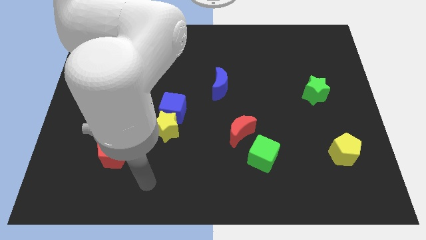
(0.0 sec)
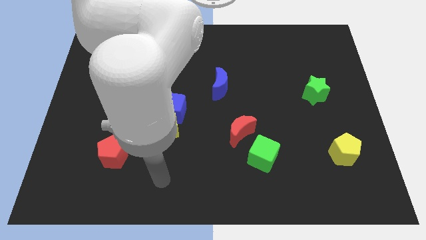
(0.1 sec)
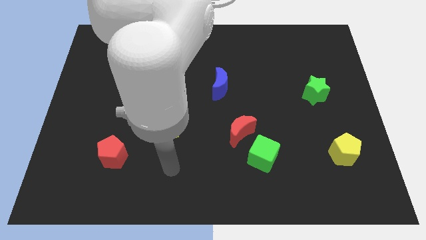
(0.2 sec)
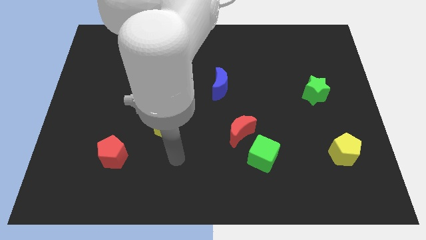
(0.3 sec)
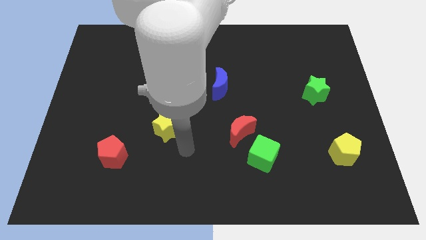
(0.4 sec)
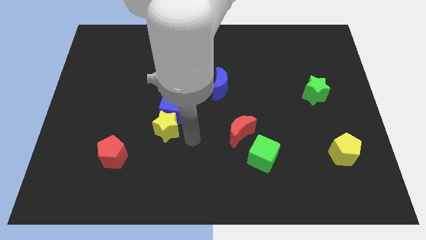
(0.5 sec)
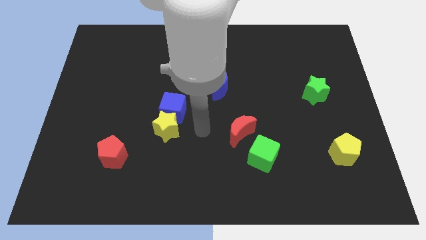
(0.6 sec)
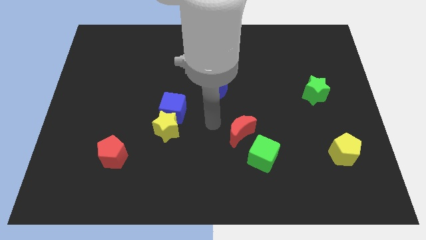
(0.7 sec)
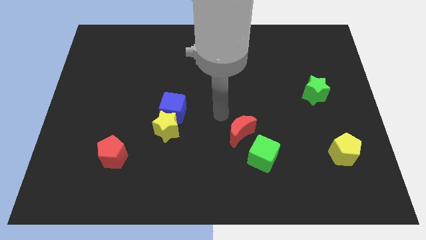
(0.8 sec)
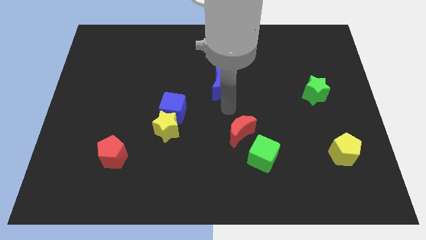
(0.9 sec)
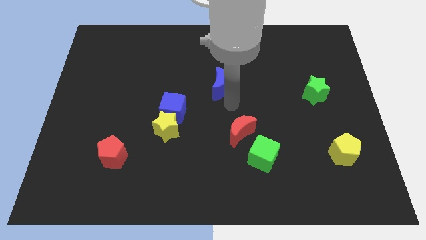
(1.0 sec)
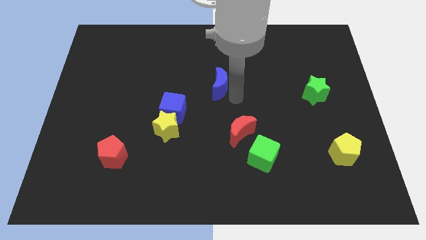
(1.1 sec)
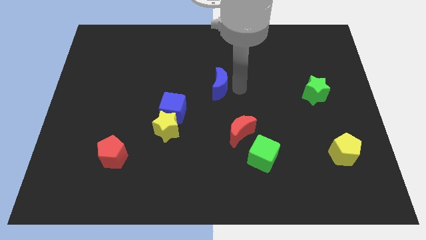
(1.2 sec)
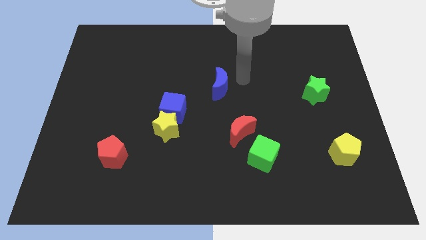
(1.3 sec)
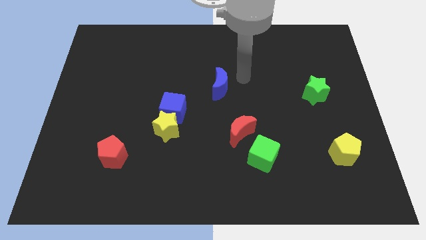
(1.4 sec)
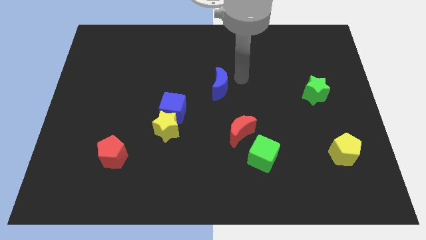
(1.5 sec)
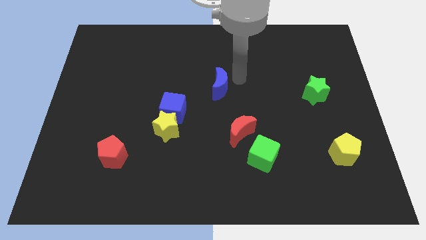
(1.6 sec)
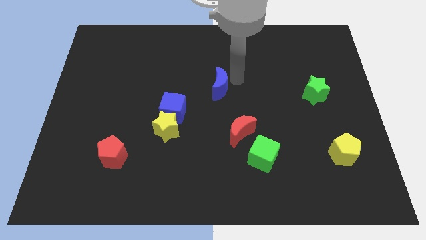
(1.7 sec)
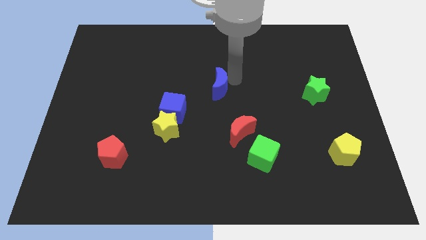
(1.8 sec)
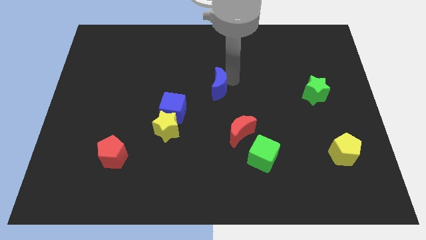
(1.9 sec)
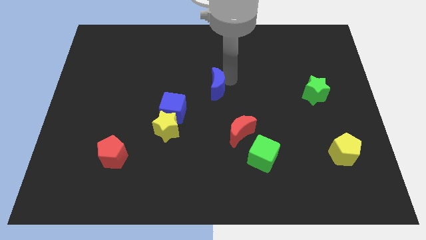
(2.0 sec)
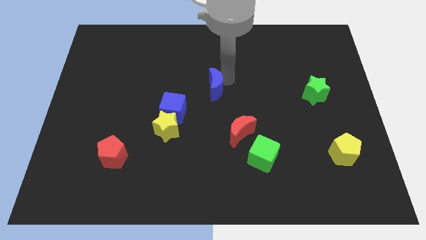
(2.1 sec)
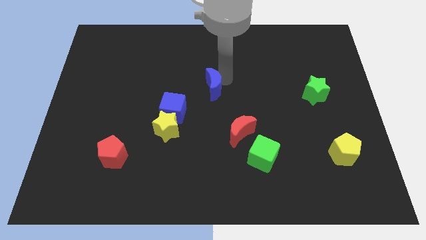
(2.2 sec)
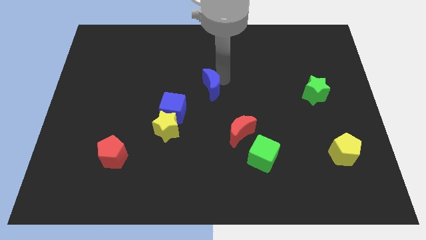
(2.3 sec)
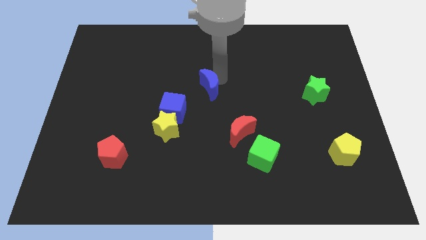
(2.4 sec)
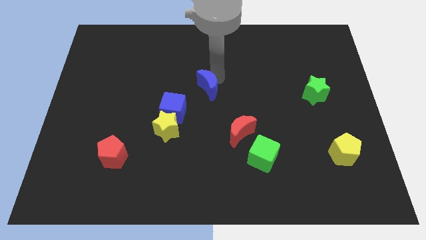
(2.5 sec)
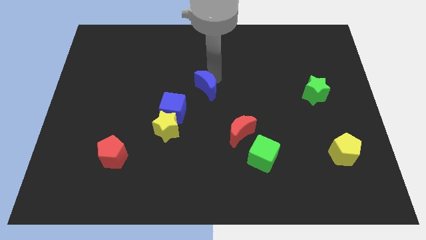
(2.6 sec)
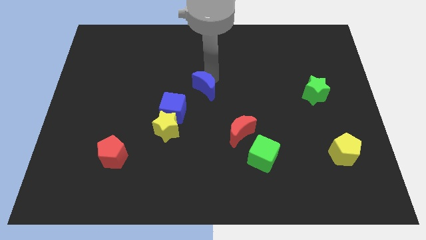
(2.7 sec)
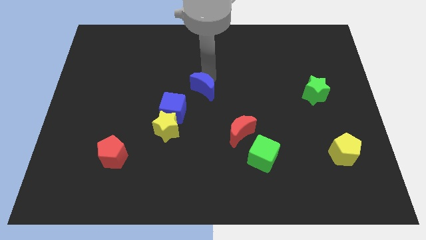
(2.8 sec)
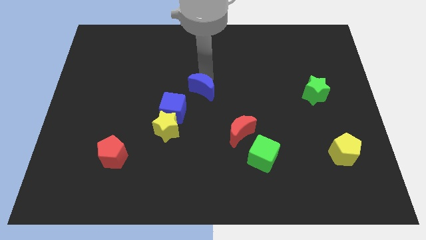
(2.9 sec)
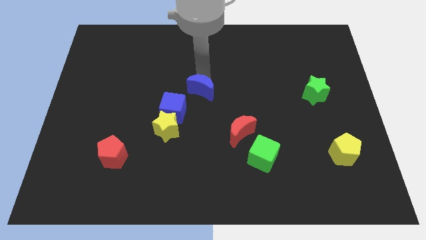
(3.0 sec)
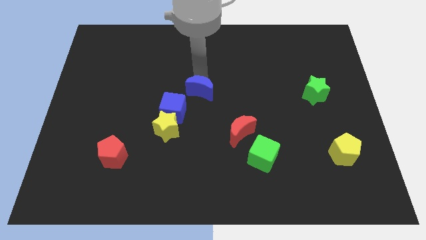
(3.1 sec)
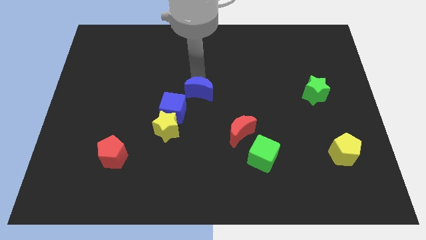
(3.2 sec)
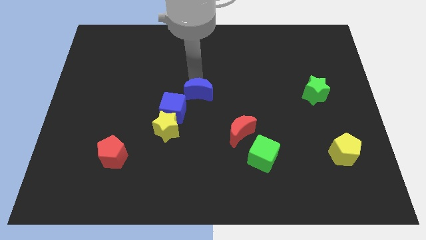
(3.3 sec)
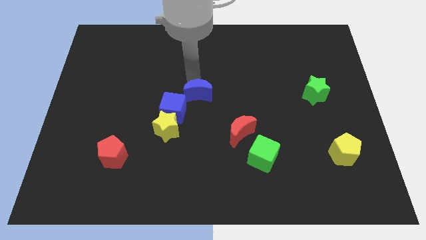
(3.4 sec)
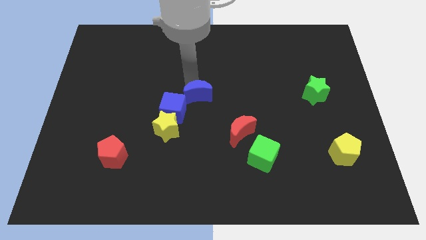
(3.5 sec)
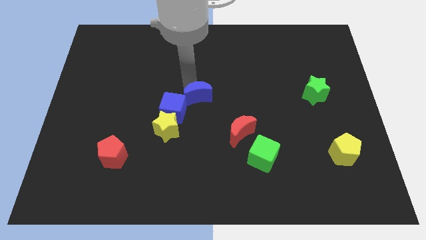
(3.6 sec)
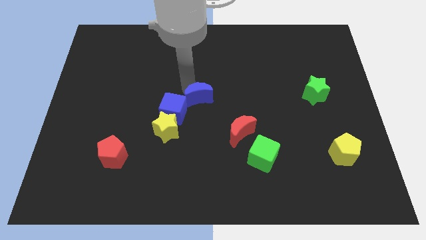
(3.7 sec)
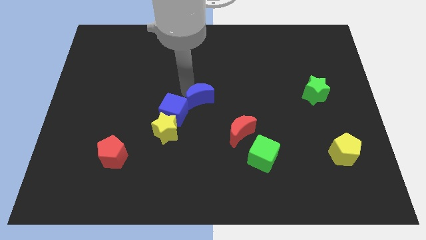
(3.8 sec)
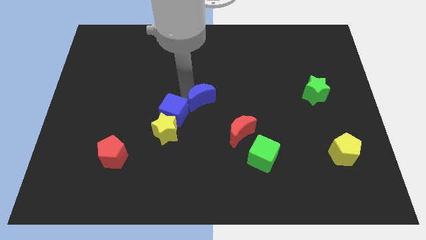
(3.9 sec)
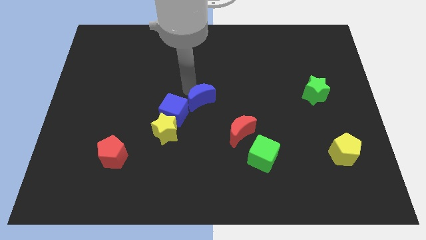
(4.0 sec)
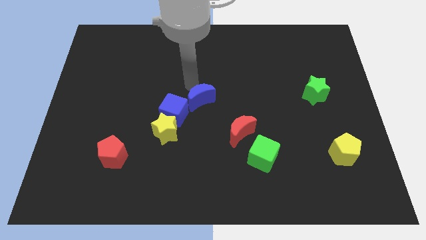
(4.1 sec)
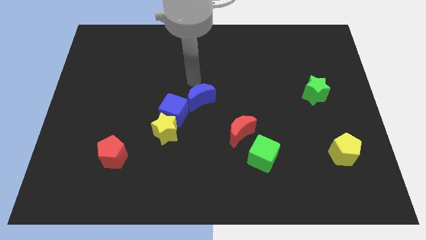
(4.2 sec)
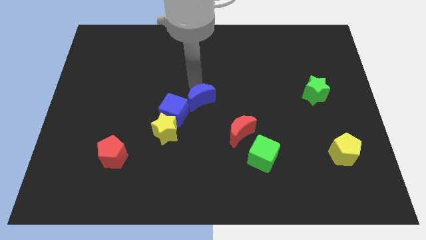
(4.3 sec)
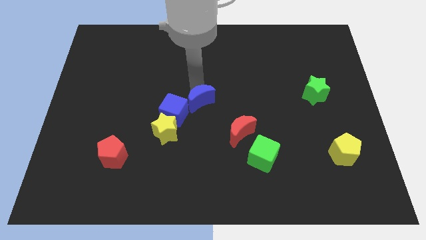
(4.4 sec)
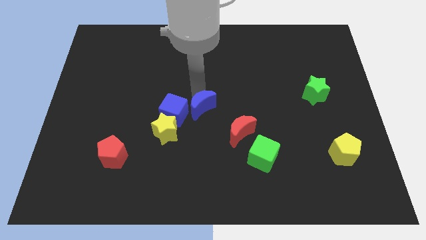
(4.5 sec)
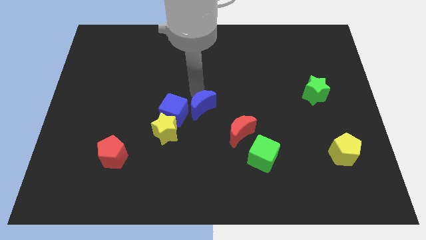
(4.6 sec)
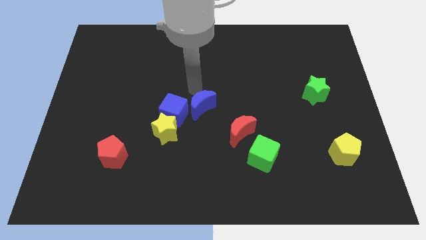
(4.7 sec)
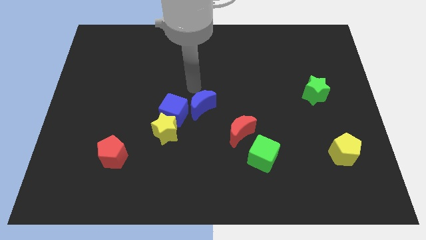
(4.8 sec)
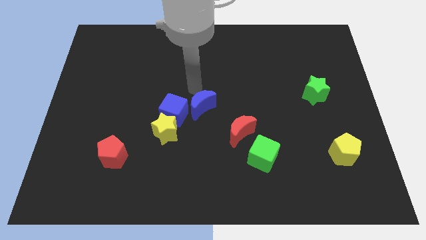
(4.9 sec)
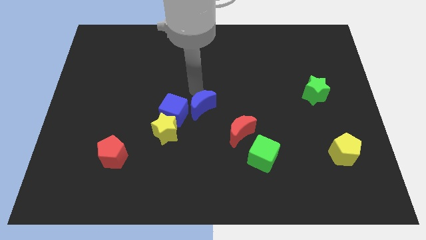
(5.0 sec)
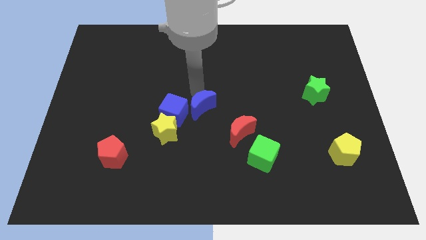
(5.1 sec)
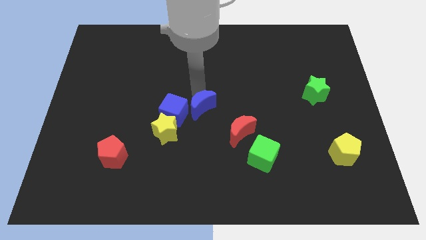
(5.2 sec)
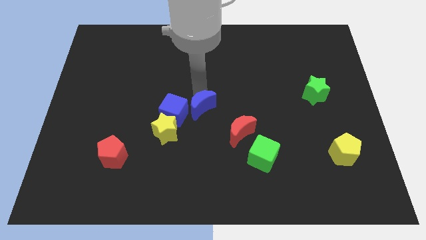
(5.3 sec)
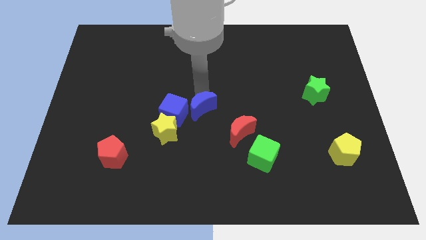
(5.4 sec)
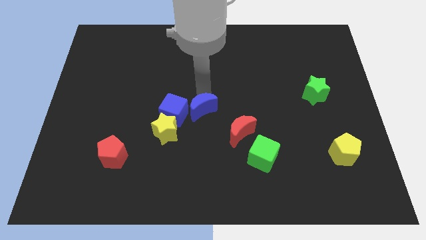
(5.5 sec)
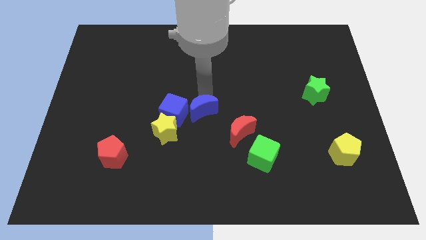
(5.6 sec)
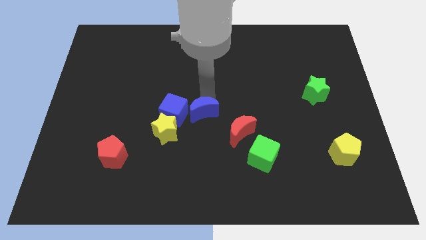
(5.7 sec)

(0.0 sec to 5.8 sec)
move the blue moon down a little

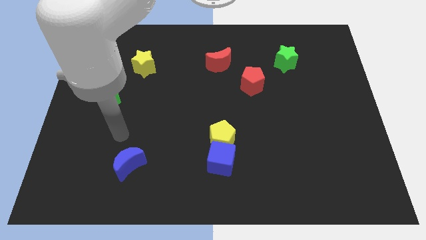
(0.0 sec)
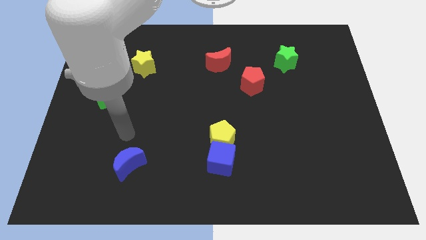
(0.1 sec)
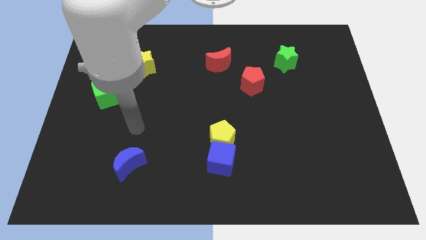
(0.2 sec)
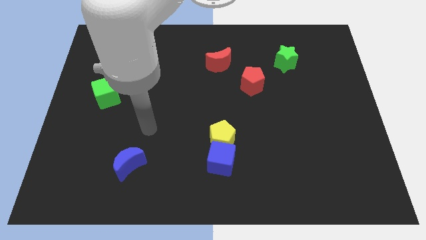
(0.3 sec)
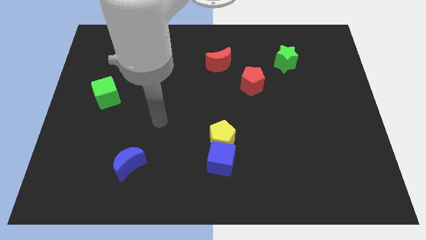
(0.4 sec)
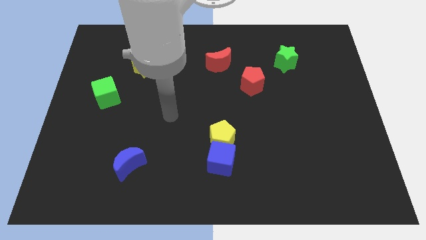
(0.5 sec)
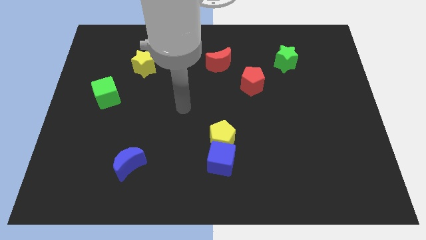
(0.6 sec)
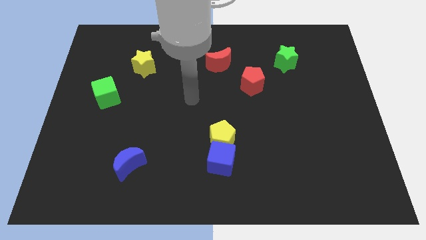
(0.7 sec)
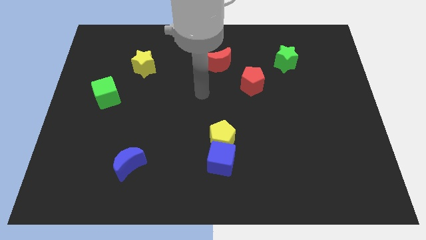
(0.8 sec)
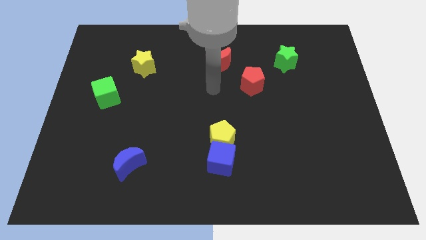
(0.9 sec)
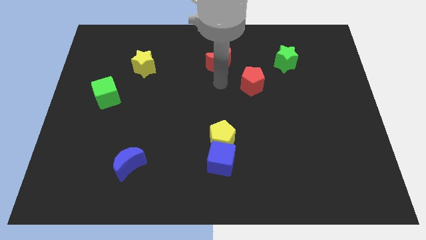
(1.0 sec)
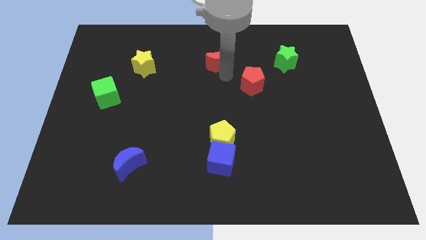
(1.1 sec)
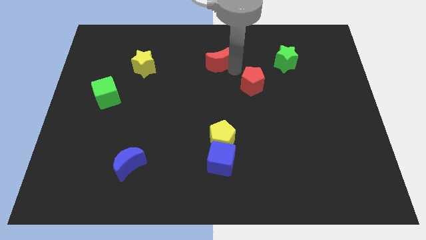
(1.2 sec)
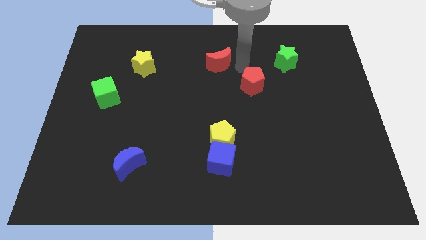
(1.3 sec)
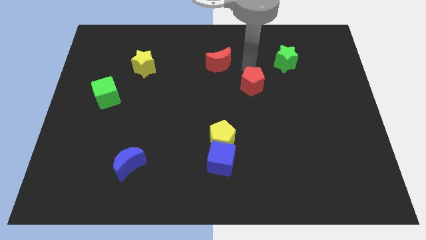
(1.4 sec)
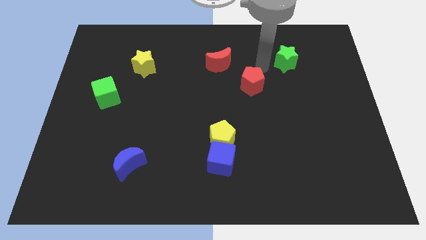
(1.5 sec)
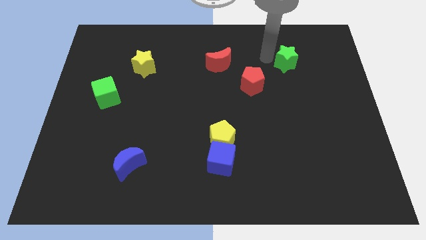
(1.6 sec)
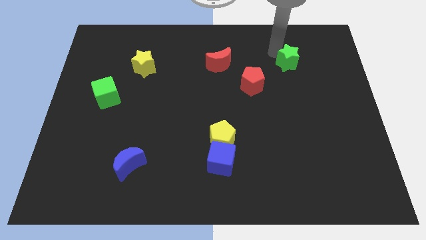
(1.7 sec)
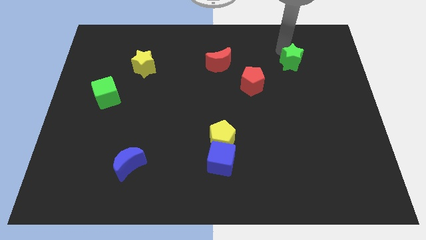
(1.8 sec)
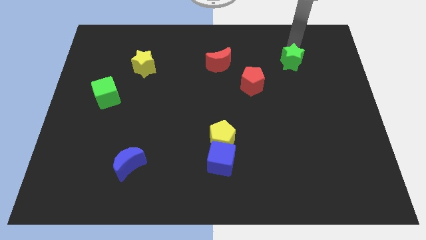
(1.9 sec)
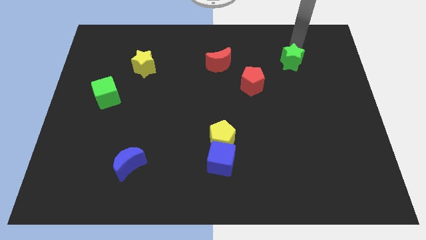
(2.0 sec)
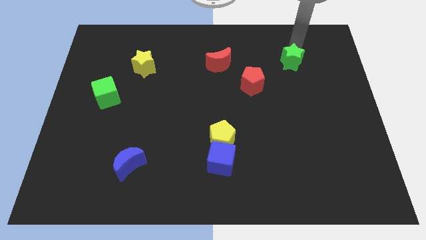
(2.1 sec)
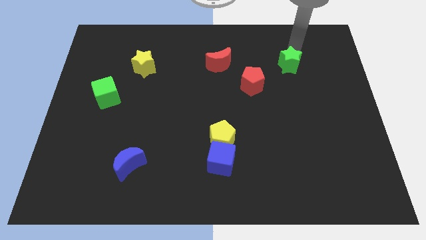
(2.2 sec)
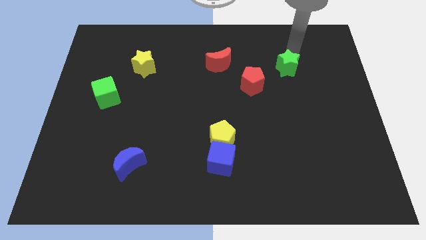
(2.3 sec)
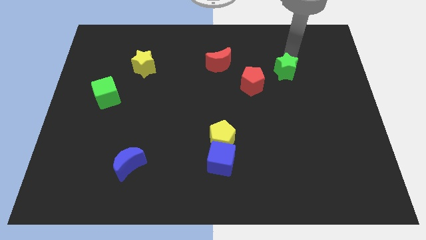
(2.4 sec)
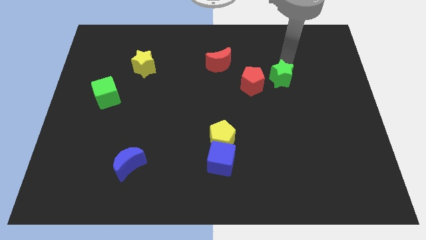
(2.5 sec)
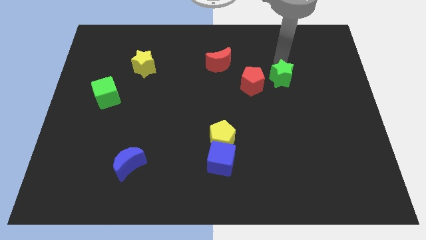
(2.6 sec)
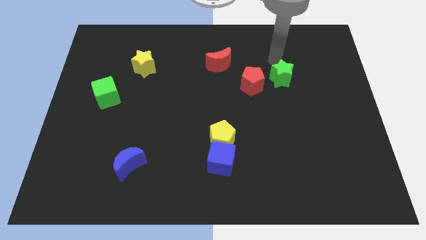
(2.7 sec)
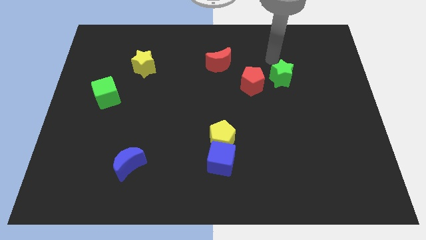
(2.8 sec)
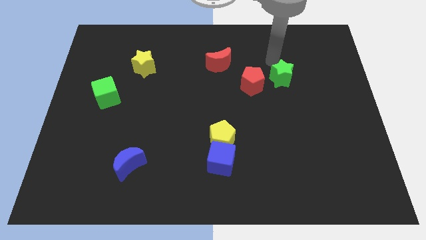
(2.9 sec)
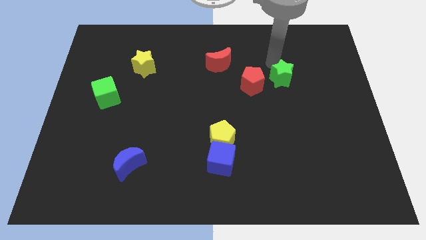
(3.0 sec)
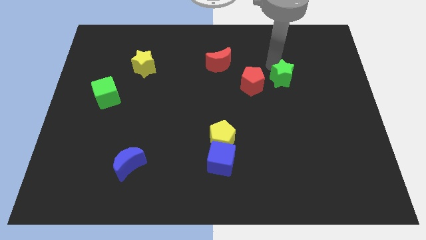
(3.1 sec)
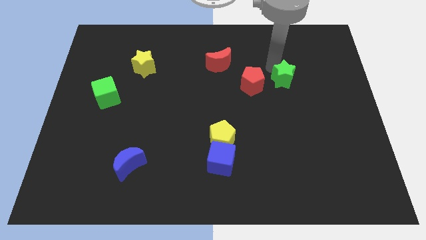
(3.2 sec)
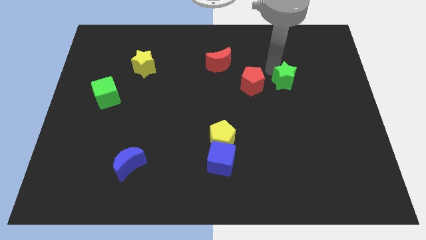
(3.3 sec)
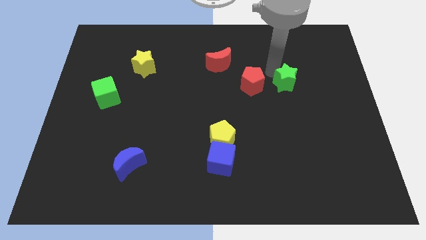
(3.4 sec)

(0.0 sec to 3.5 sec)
slide the green star down a little bit
